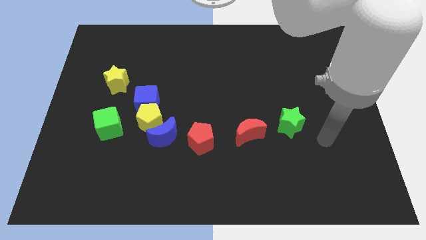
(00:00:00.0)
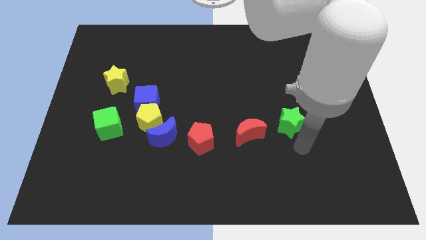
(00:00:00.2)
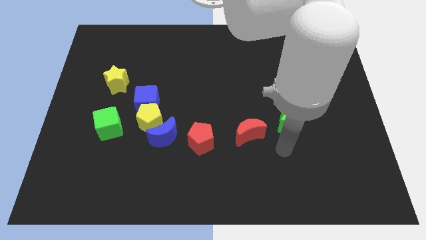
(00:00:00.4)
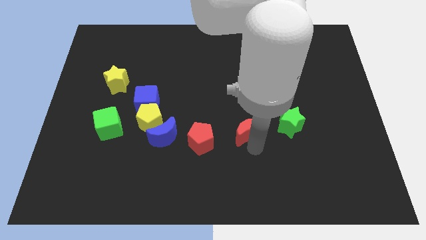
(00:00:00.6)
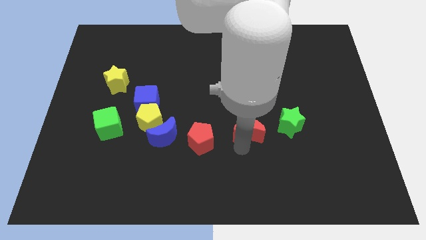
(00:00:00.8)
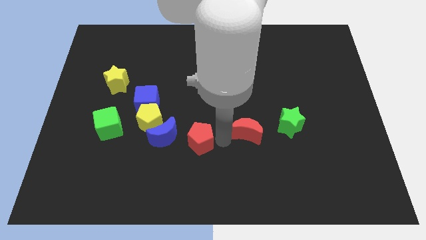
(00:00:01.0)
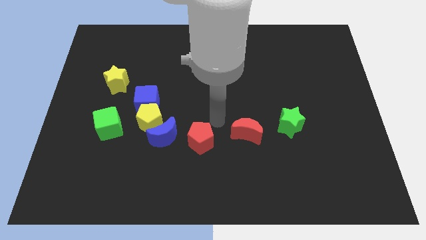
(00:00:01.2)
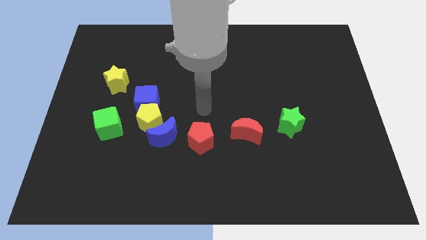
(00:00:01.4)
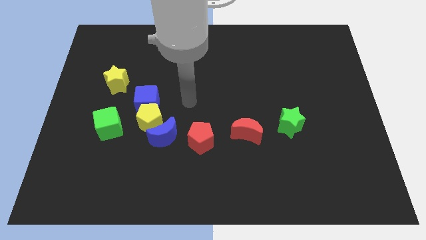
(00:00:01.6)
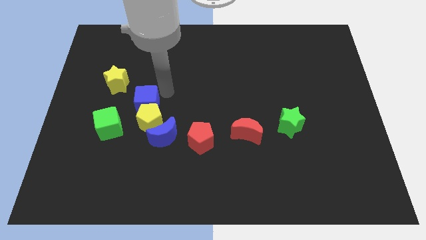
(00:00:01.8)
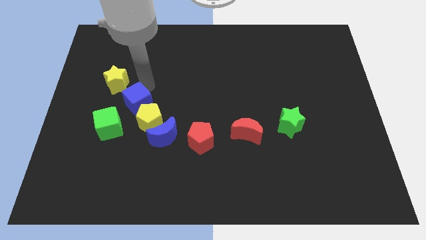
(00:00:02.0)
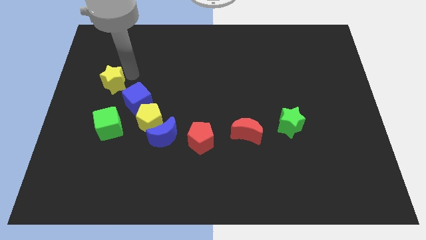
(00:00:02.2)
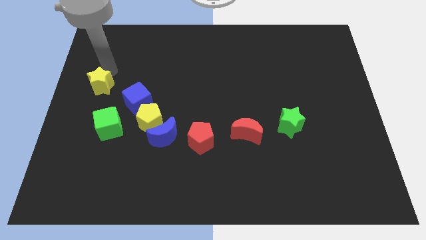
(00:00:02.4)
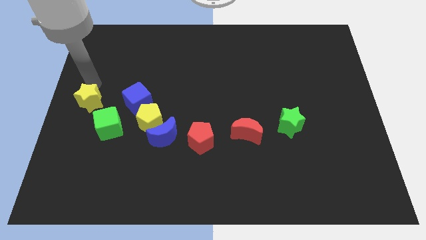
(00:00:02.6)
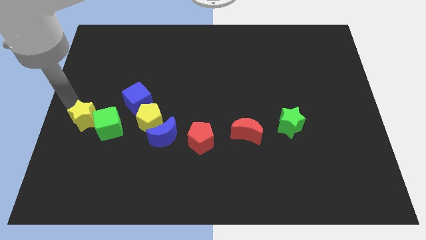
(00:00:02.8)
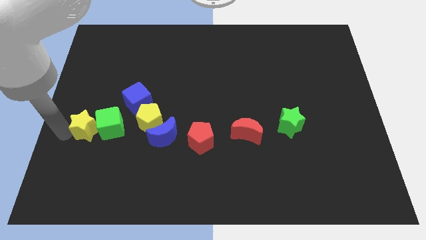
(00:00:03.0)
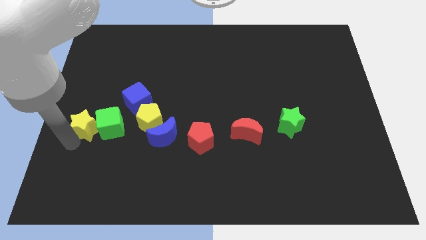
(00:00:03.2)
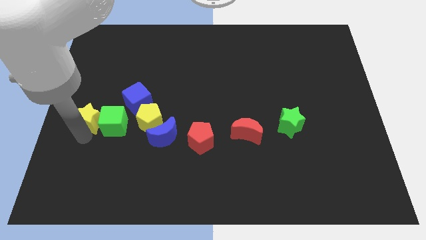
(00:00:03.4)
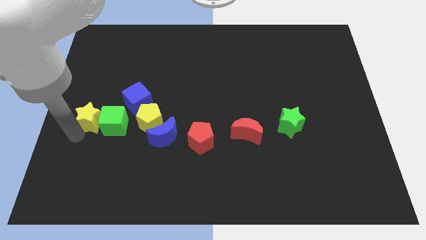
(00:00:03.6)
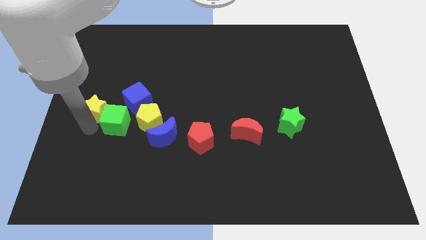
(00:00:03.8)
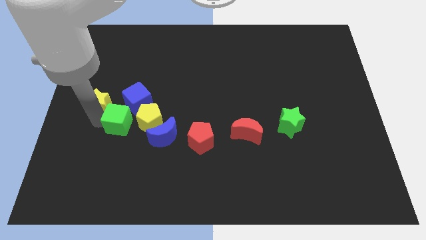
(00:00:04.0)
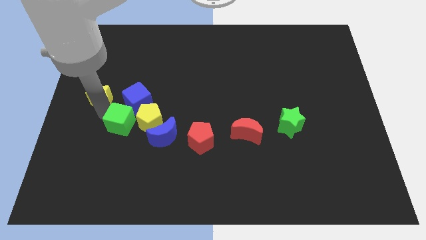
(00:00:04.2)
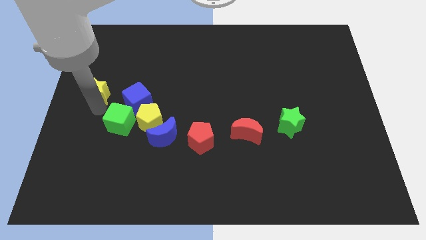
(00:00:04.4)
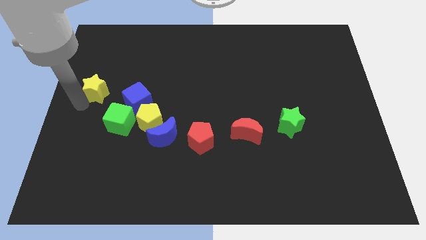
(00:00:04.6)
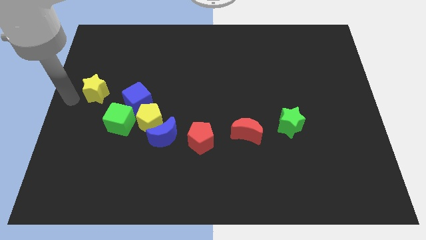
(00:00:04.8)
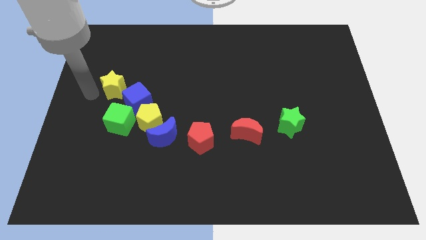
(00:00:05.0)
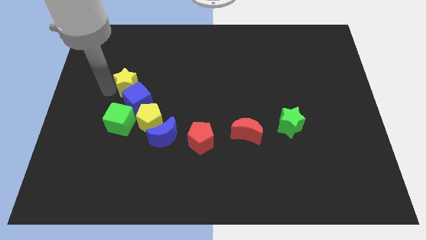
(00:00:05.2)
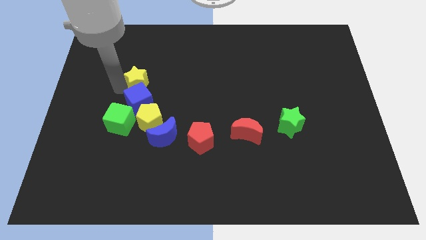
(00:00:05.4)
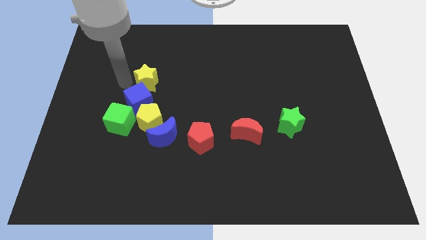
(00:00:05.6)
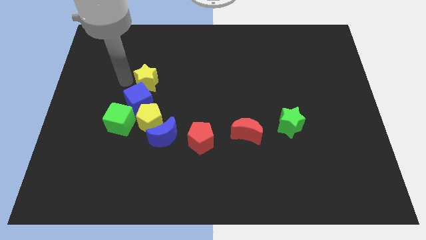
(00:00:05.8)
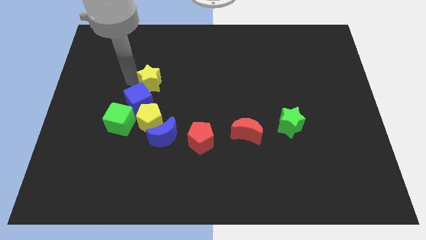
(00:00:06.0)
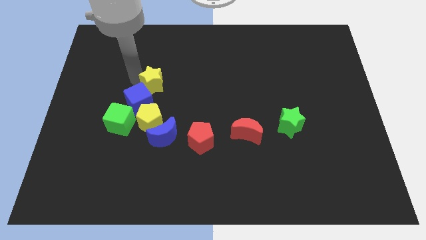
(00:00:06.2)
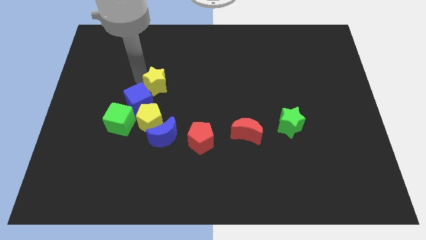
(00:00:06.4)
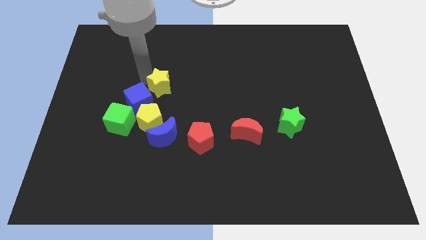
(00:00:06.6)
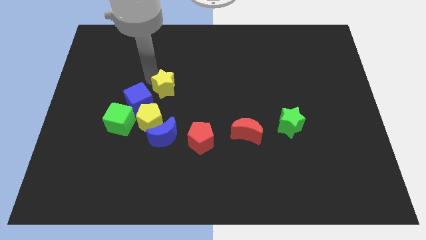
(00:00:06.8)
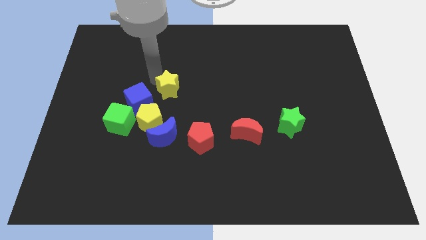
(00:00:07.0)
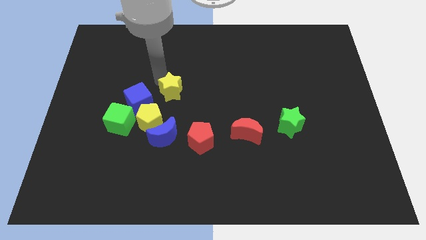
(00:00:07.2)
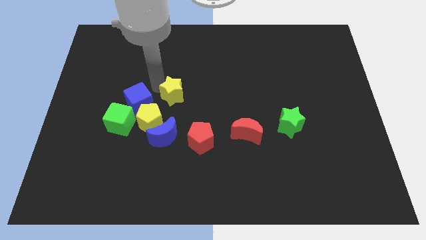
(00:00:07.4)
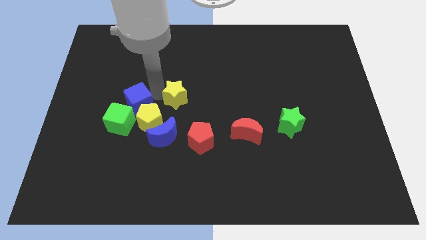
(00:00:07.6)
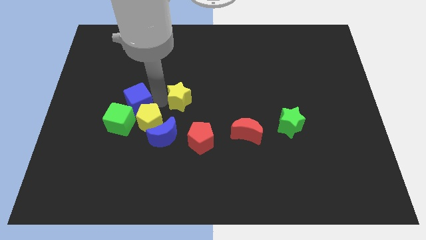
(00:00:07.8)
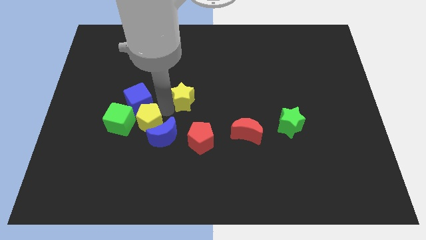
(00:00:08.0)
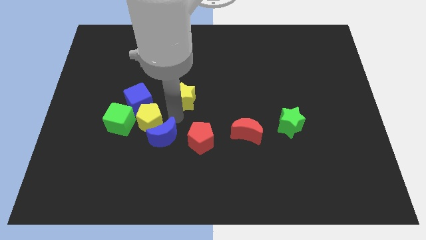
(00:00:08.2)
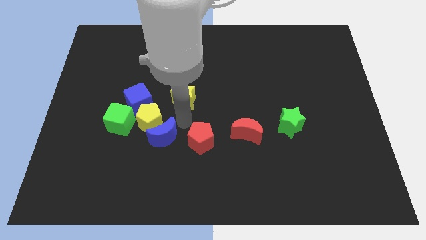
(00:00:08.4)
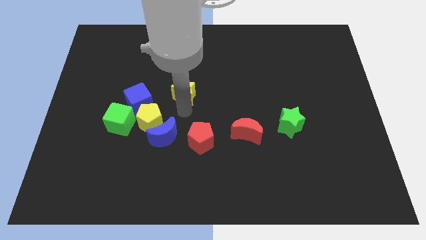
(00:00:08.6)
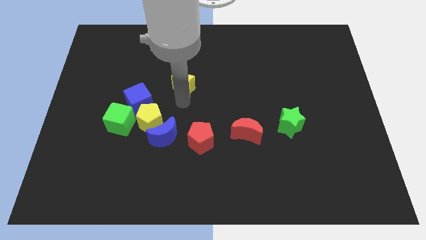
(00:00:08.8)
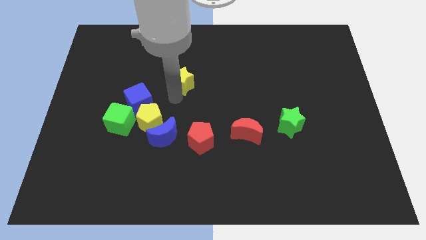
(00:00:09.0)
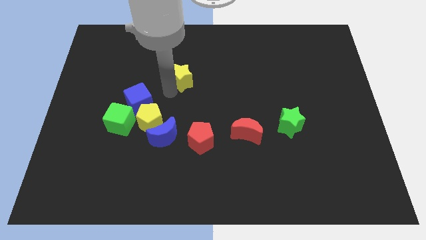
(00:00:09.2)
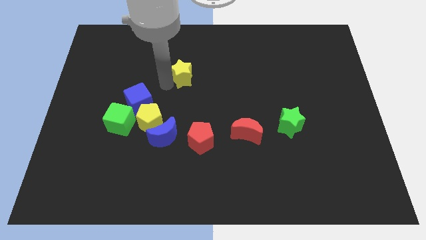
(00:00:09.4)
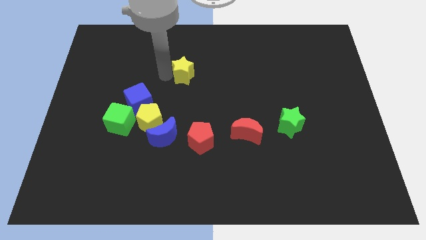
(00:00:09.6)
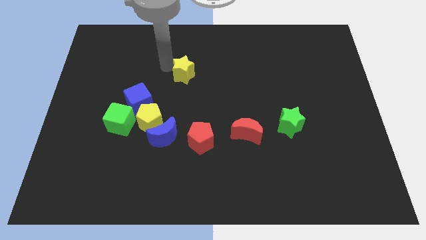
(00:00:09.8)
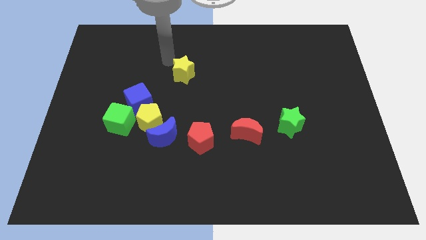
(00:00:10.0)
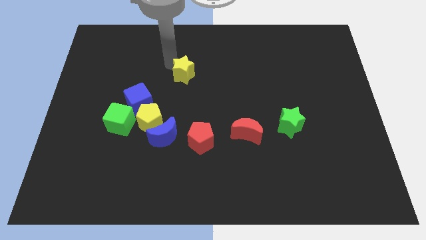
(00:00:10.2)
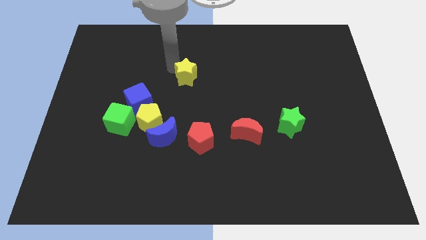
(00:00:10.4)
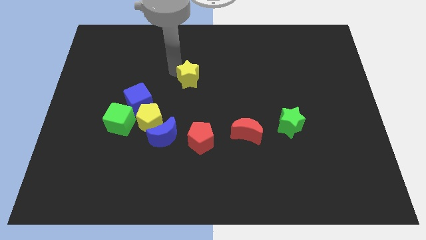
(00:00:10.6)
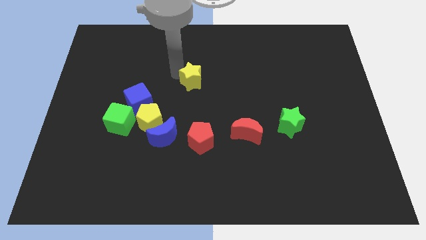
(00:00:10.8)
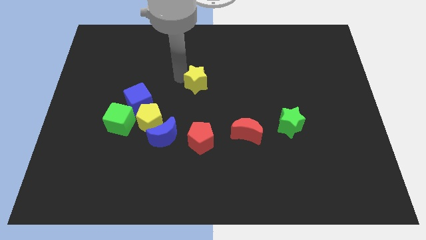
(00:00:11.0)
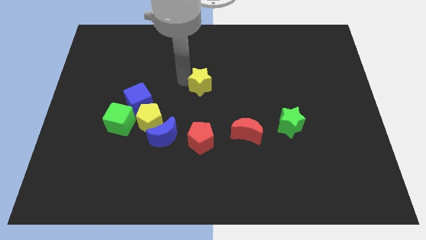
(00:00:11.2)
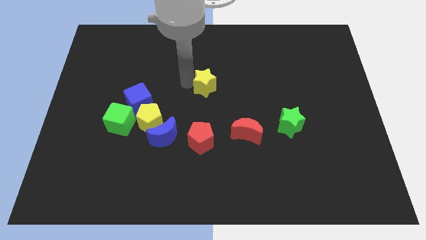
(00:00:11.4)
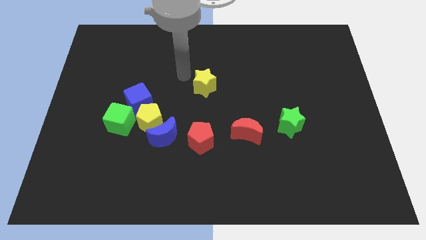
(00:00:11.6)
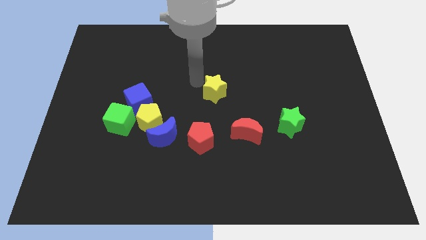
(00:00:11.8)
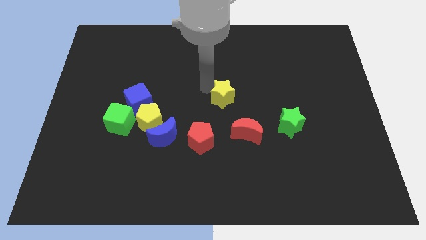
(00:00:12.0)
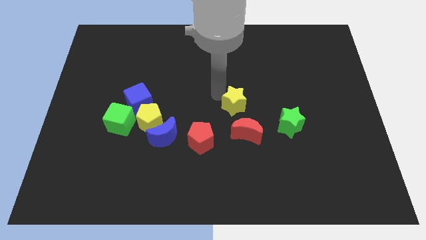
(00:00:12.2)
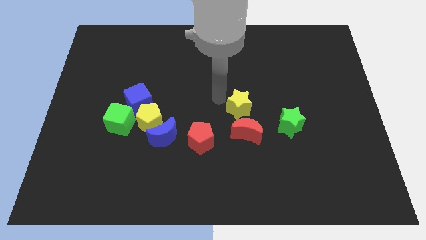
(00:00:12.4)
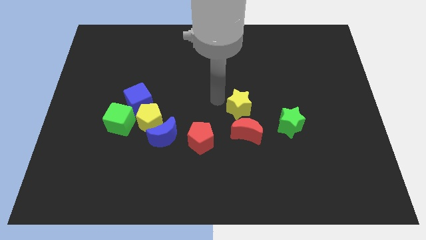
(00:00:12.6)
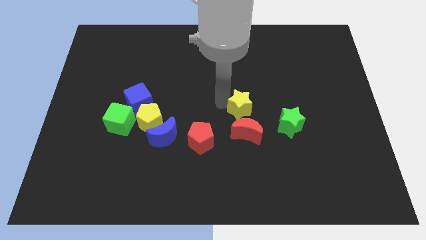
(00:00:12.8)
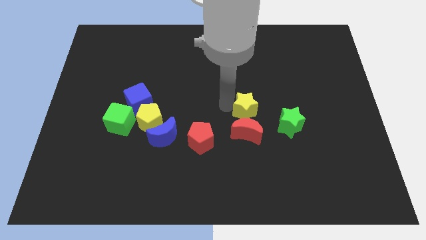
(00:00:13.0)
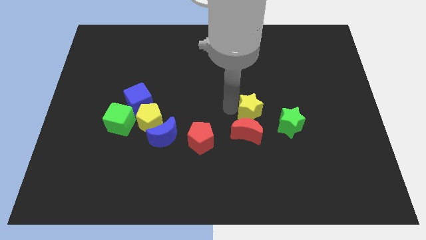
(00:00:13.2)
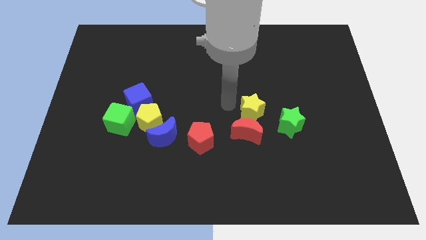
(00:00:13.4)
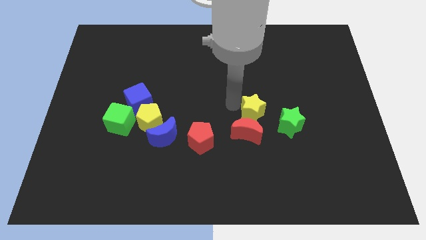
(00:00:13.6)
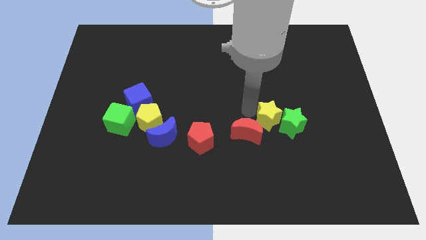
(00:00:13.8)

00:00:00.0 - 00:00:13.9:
move the yellow star to the green star
